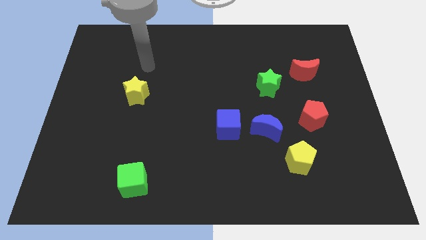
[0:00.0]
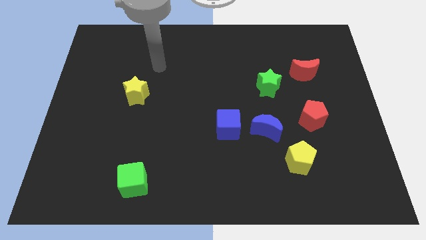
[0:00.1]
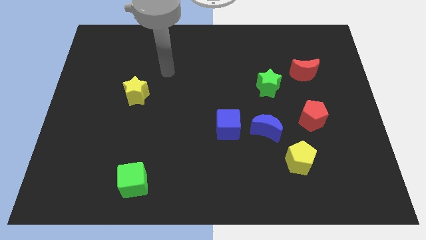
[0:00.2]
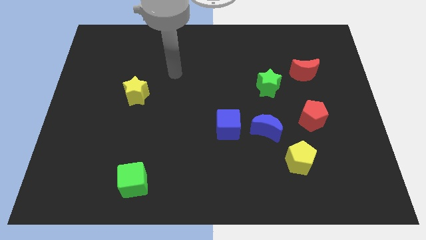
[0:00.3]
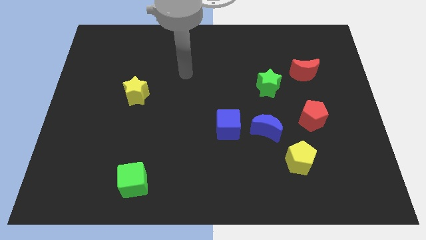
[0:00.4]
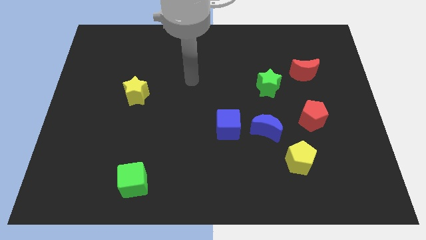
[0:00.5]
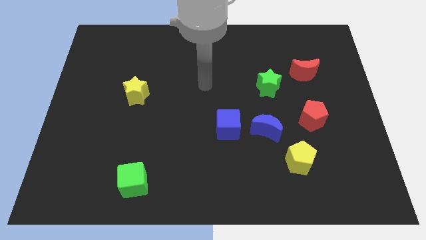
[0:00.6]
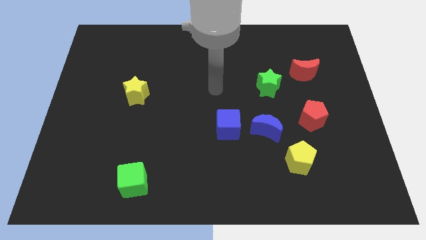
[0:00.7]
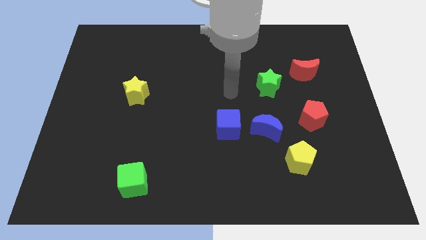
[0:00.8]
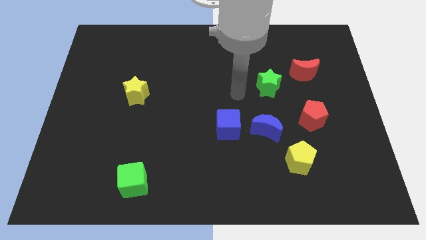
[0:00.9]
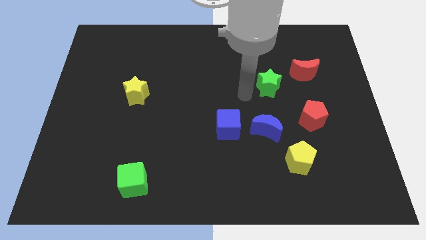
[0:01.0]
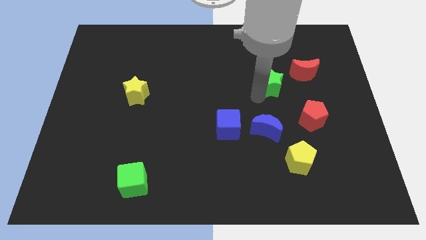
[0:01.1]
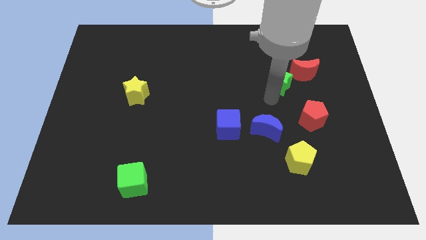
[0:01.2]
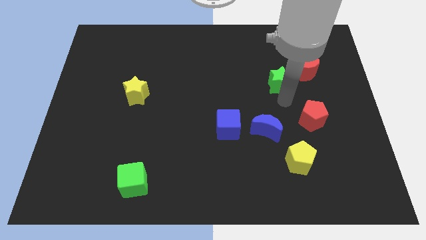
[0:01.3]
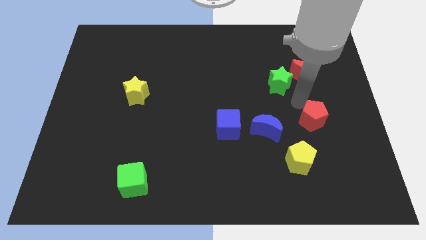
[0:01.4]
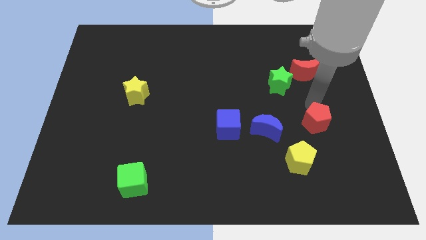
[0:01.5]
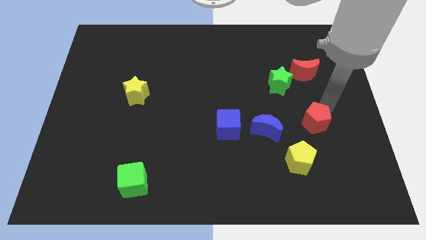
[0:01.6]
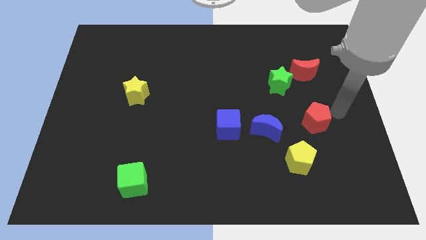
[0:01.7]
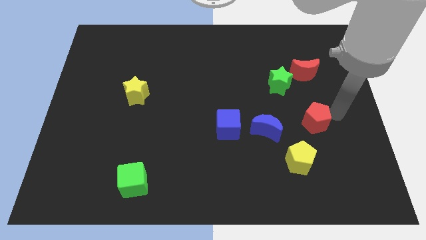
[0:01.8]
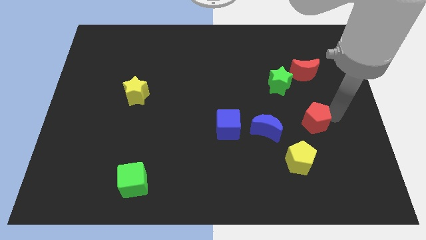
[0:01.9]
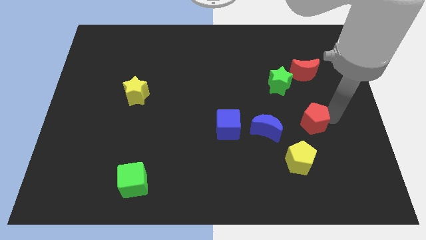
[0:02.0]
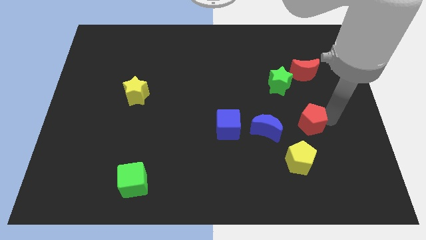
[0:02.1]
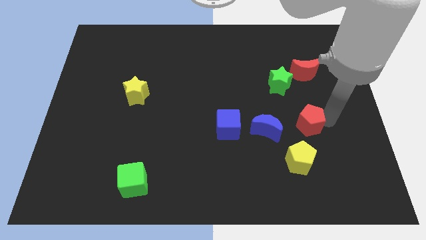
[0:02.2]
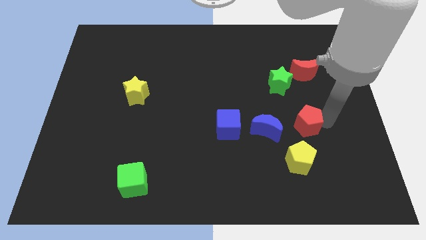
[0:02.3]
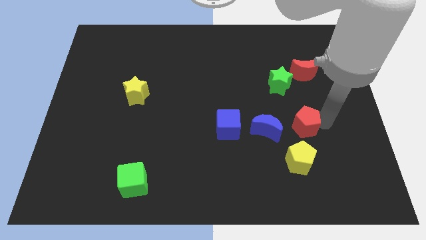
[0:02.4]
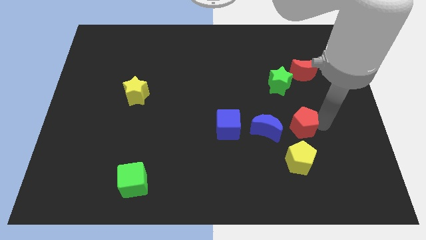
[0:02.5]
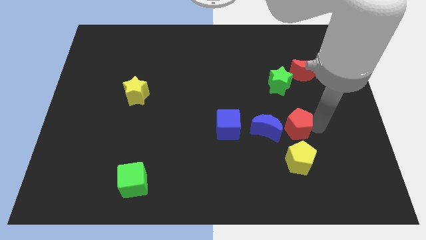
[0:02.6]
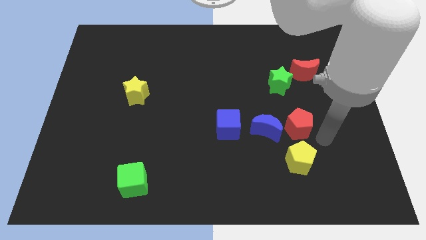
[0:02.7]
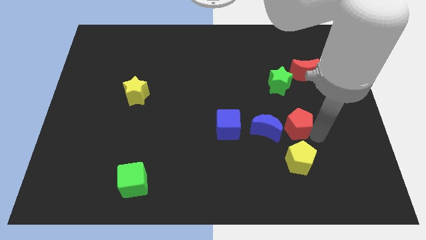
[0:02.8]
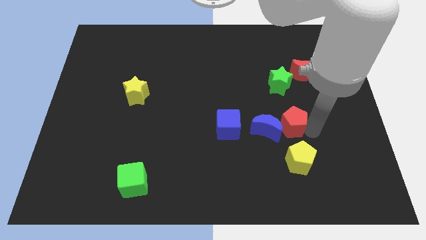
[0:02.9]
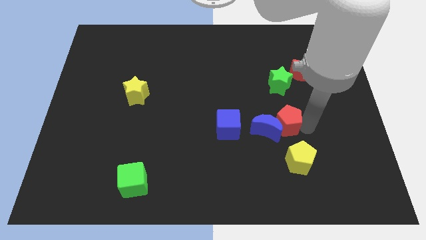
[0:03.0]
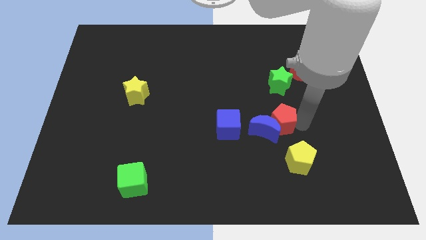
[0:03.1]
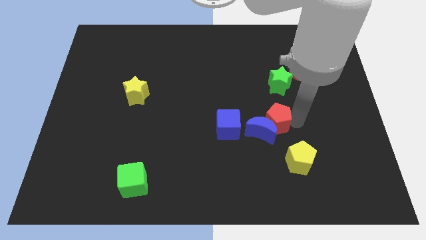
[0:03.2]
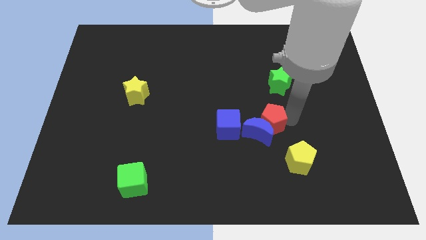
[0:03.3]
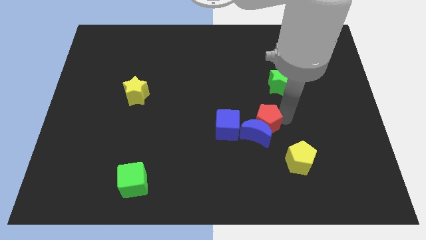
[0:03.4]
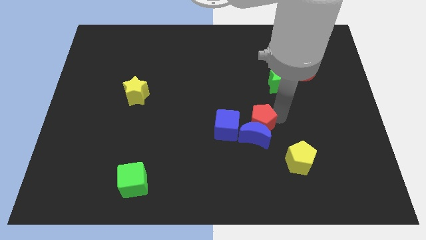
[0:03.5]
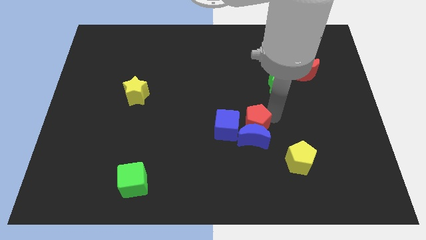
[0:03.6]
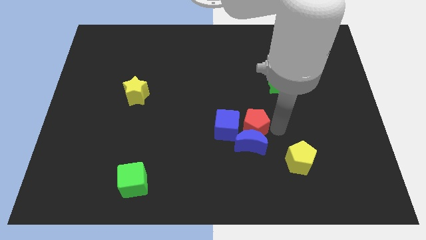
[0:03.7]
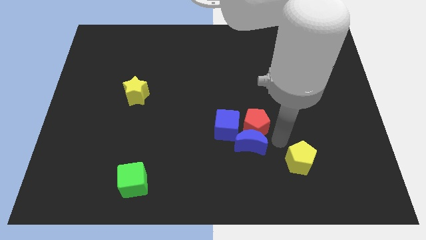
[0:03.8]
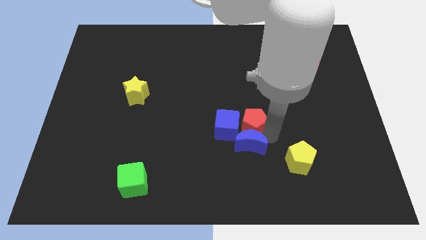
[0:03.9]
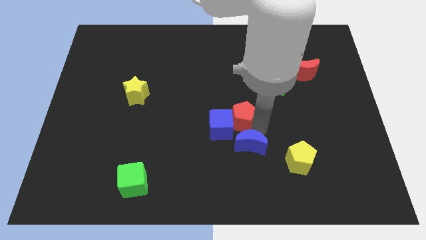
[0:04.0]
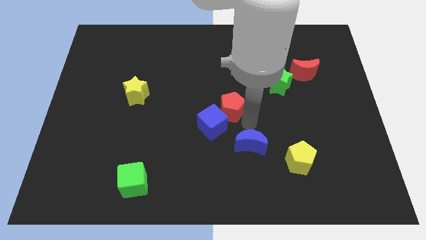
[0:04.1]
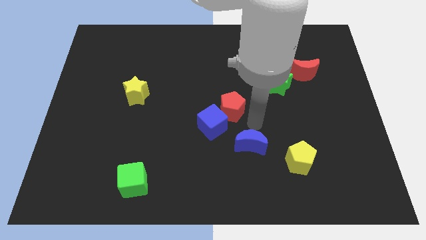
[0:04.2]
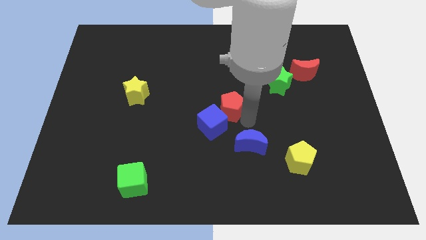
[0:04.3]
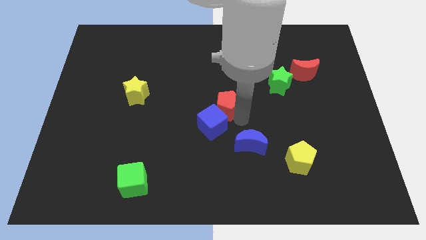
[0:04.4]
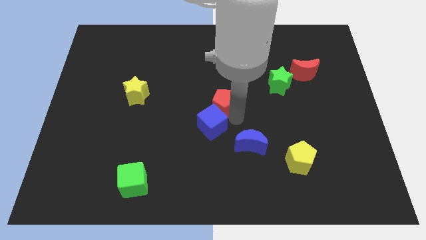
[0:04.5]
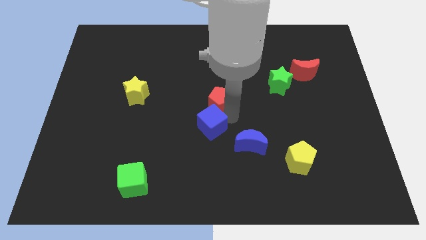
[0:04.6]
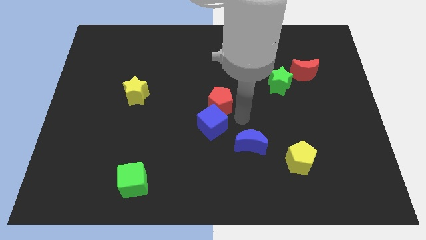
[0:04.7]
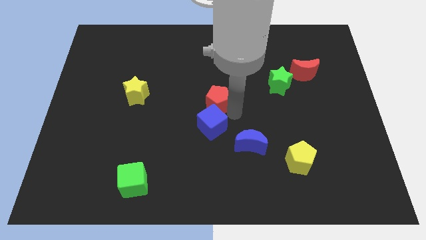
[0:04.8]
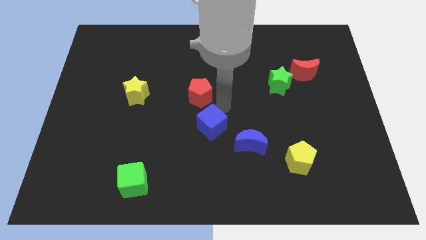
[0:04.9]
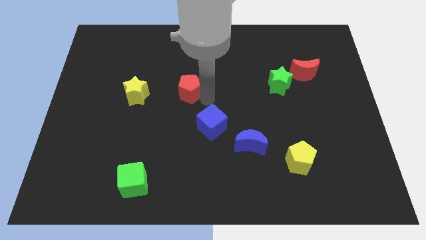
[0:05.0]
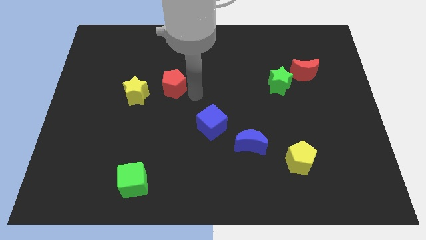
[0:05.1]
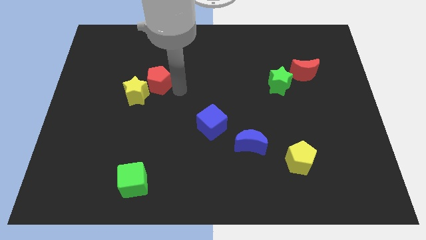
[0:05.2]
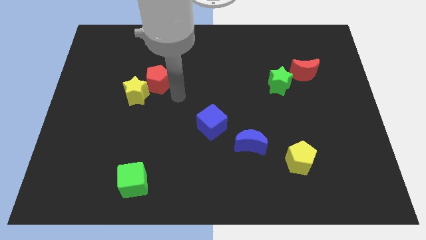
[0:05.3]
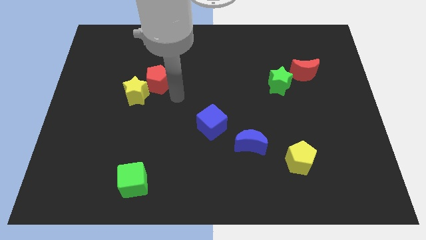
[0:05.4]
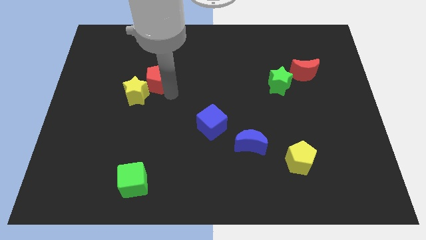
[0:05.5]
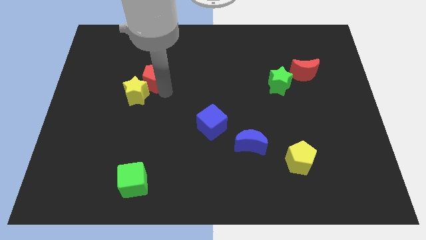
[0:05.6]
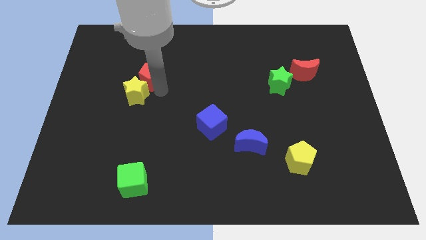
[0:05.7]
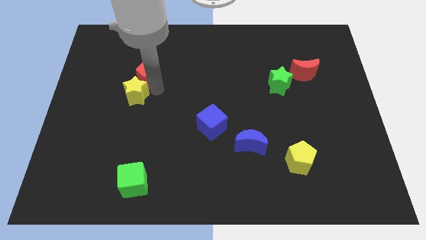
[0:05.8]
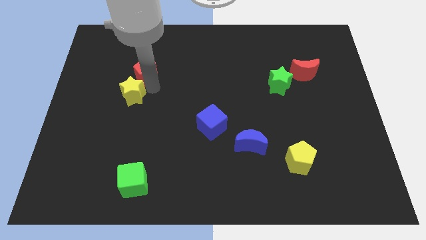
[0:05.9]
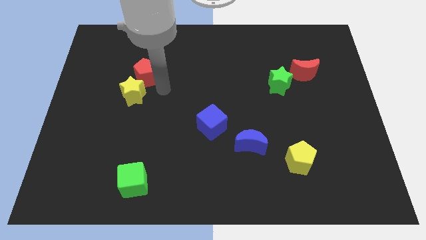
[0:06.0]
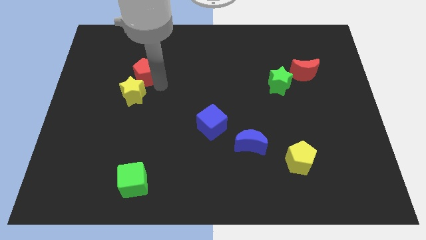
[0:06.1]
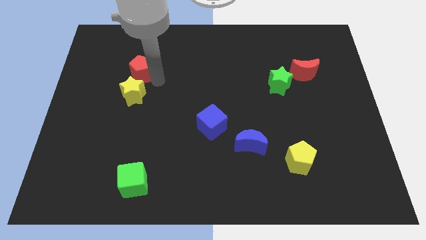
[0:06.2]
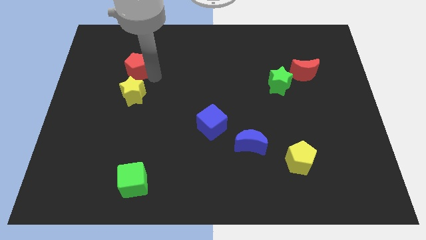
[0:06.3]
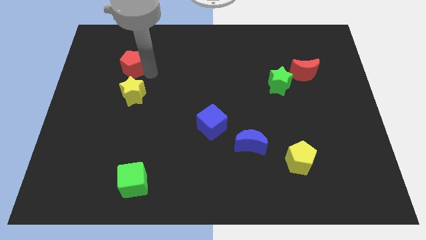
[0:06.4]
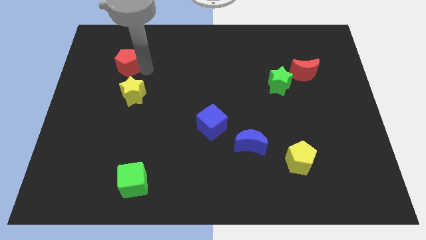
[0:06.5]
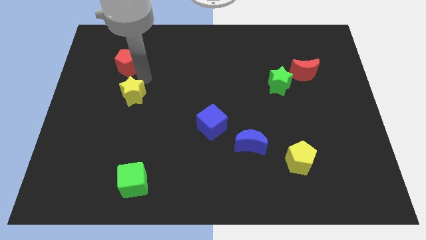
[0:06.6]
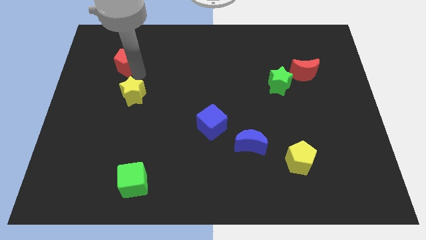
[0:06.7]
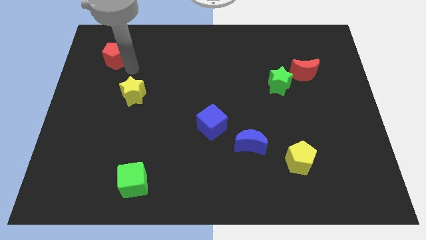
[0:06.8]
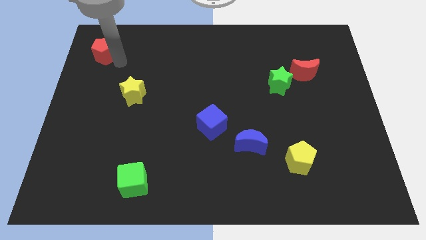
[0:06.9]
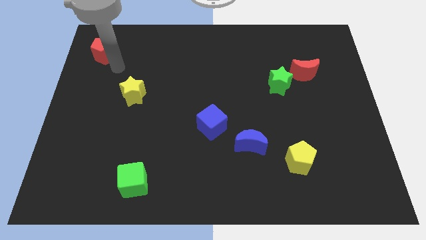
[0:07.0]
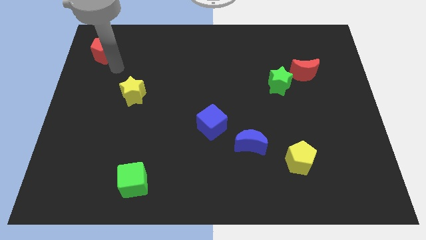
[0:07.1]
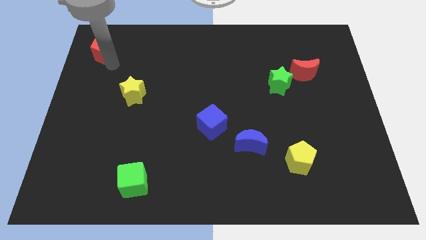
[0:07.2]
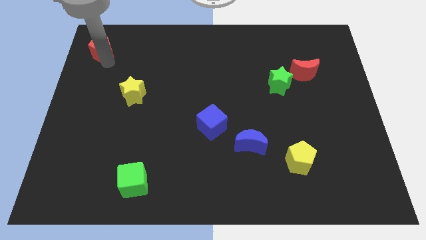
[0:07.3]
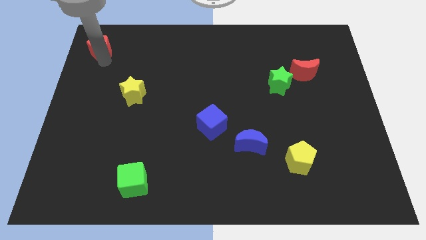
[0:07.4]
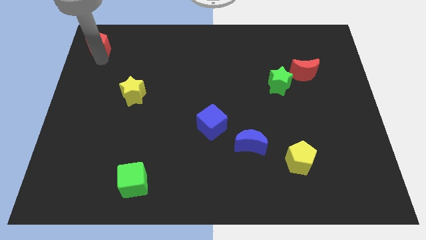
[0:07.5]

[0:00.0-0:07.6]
move the red pentagon to the top left corner
